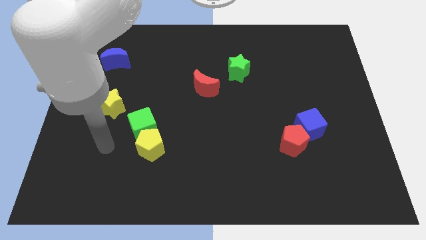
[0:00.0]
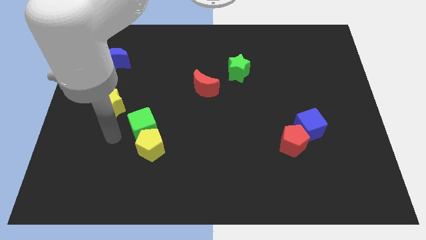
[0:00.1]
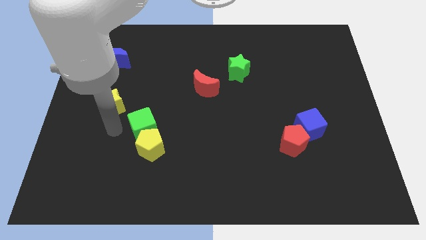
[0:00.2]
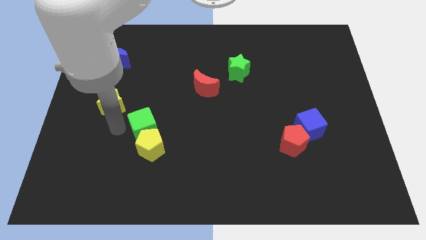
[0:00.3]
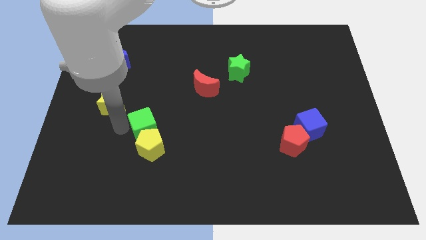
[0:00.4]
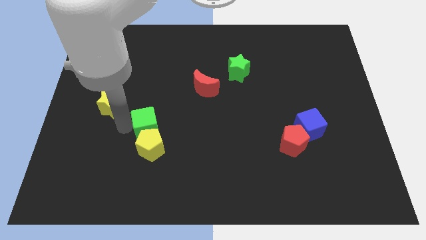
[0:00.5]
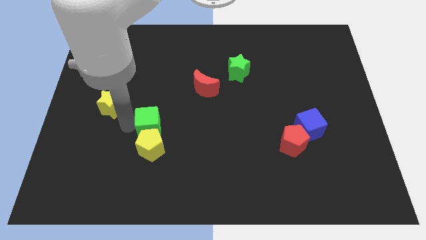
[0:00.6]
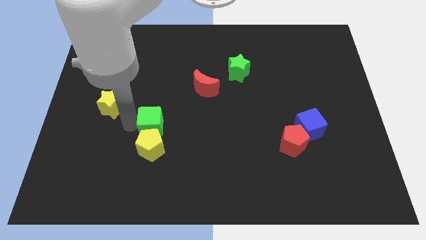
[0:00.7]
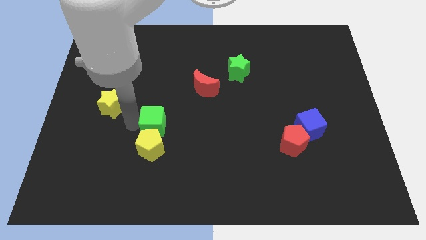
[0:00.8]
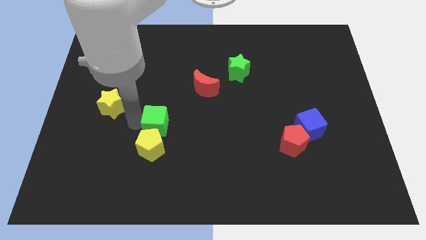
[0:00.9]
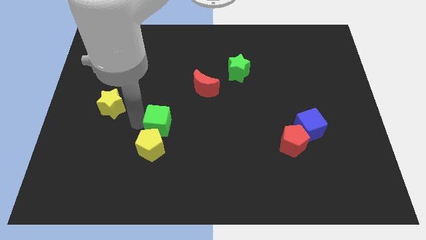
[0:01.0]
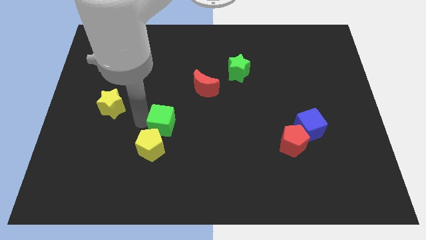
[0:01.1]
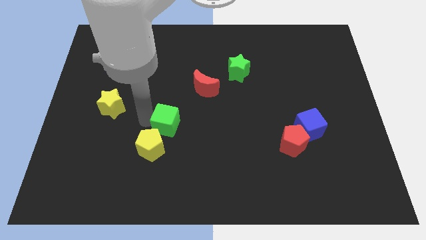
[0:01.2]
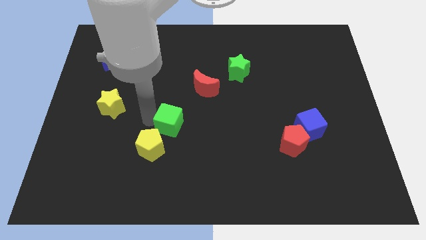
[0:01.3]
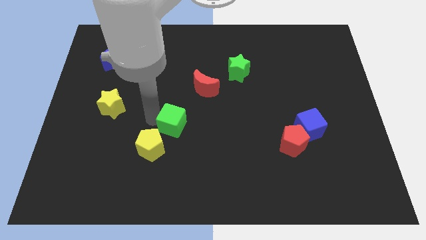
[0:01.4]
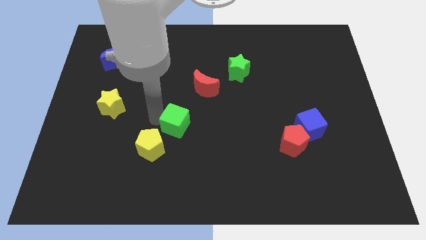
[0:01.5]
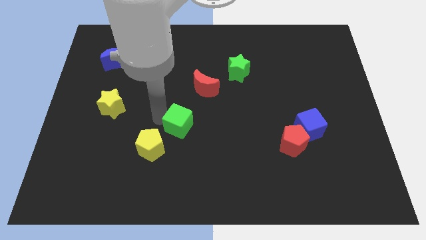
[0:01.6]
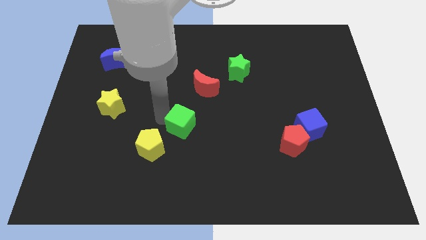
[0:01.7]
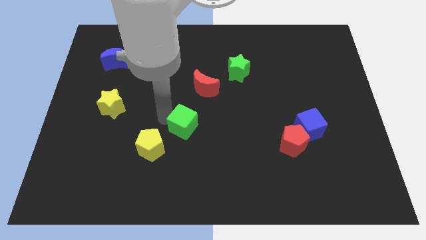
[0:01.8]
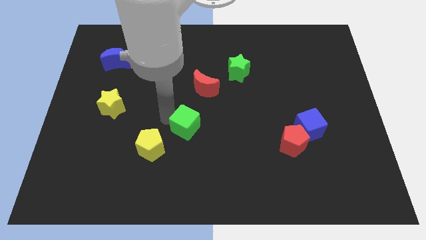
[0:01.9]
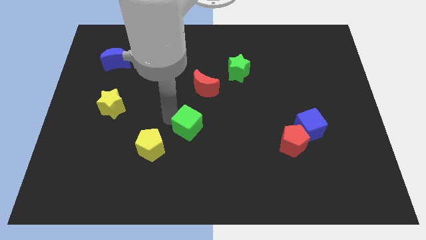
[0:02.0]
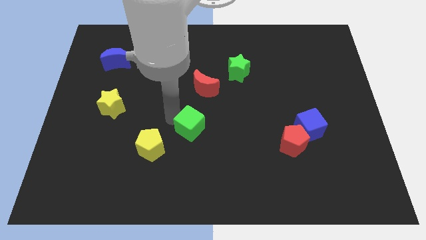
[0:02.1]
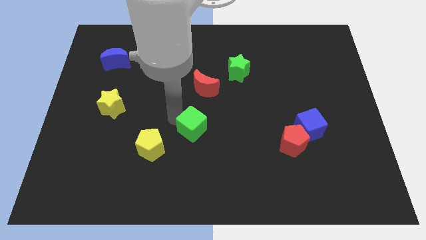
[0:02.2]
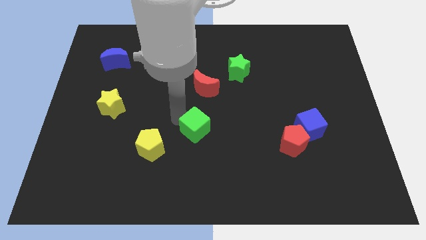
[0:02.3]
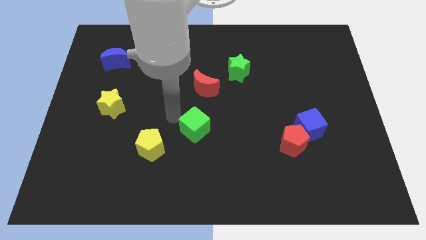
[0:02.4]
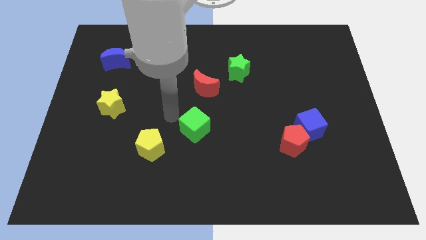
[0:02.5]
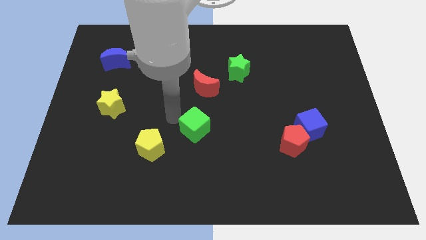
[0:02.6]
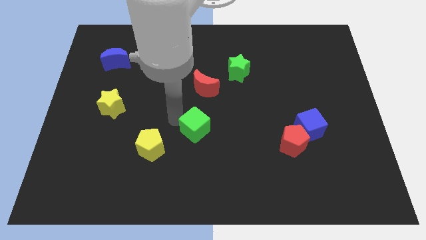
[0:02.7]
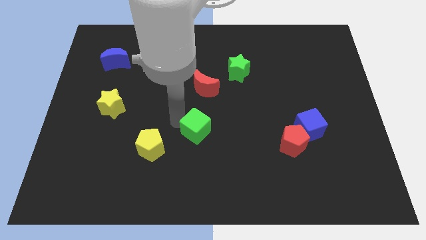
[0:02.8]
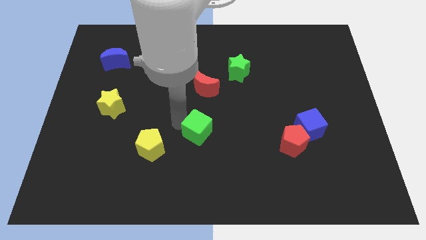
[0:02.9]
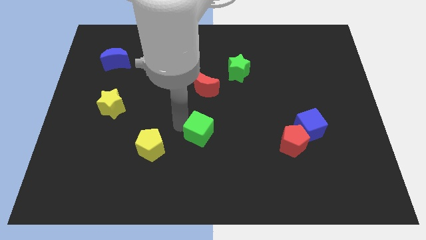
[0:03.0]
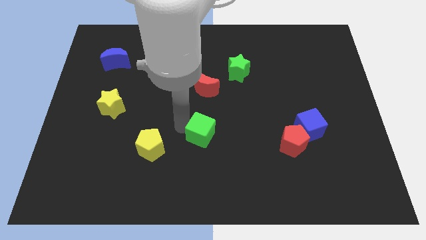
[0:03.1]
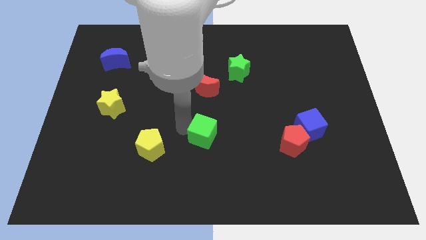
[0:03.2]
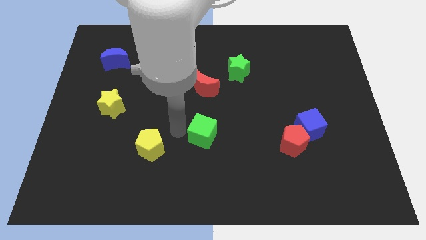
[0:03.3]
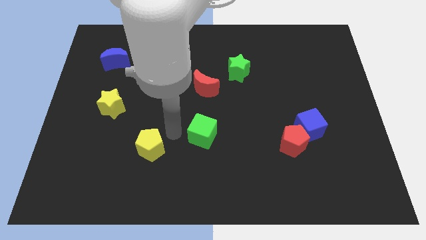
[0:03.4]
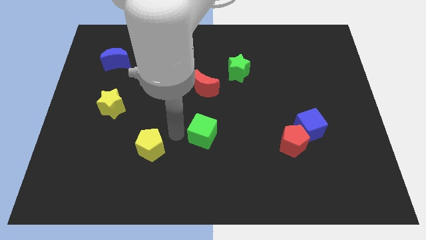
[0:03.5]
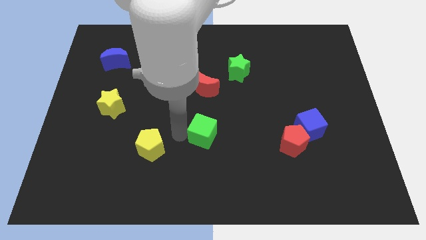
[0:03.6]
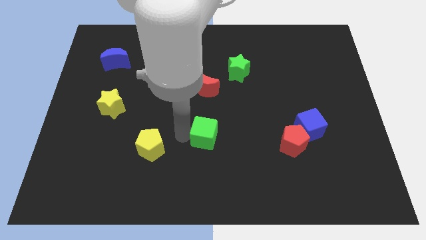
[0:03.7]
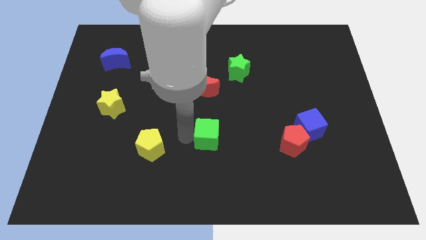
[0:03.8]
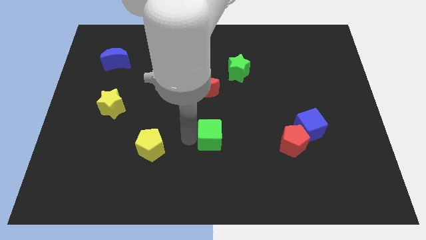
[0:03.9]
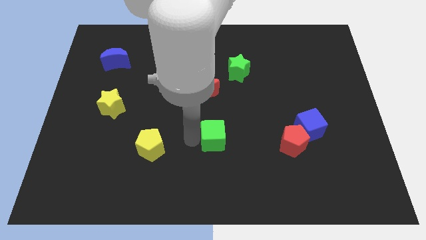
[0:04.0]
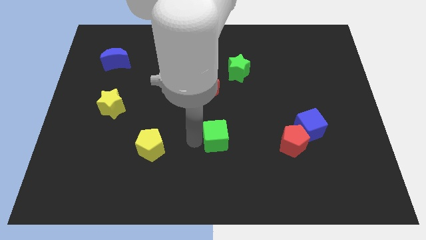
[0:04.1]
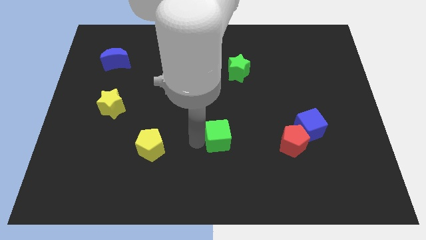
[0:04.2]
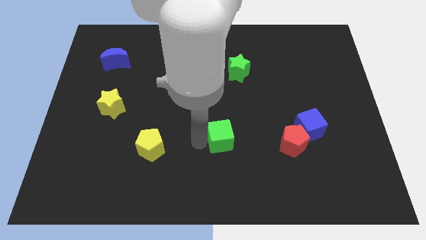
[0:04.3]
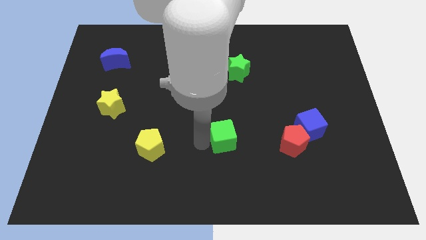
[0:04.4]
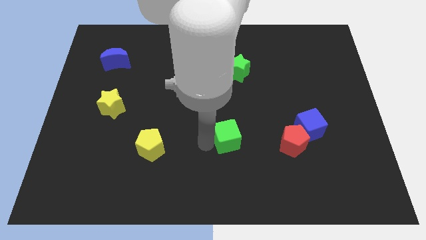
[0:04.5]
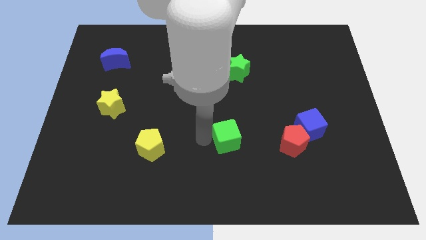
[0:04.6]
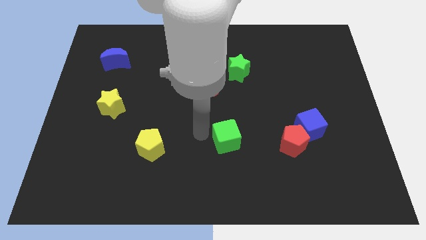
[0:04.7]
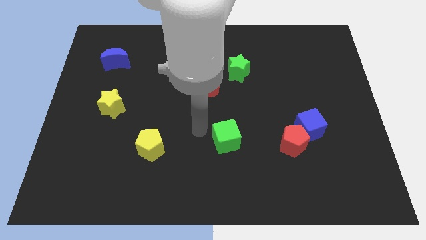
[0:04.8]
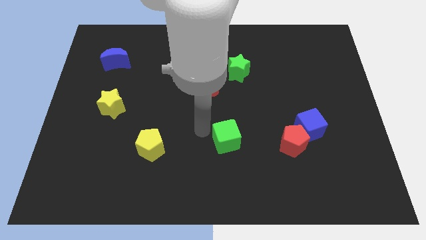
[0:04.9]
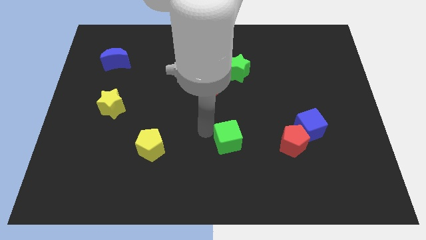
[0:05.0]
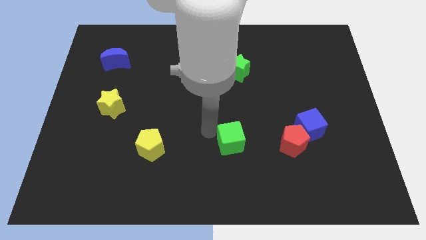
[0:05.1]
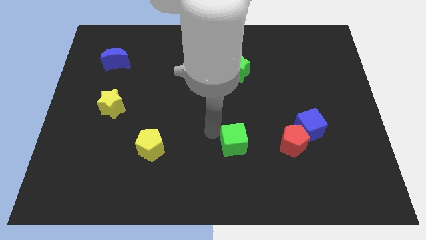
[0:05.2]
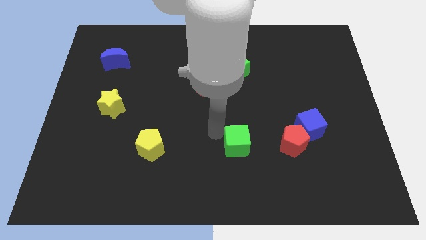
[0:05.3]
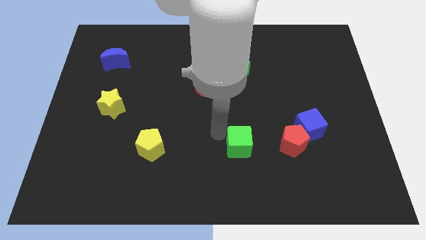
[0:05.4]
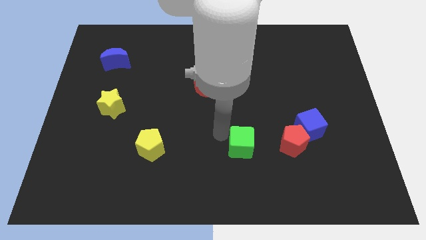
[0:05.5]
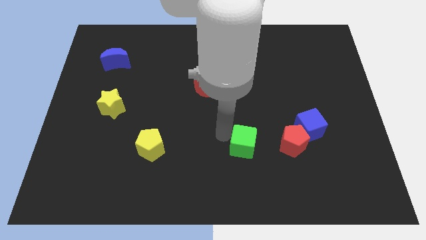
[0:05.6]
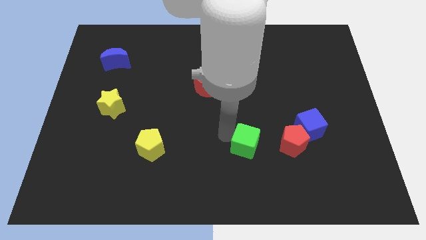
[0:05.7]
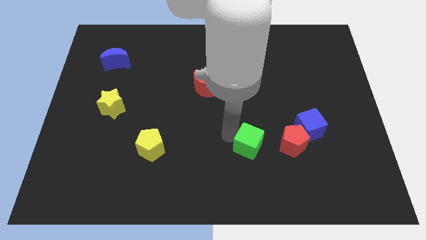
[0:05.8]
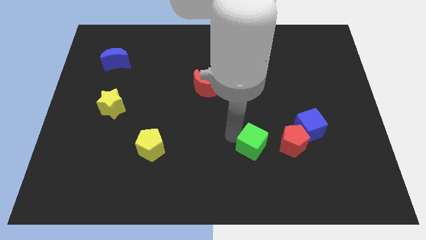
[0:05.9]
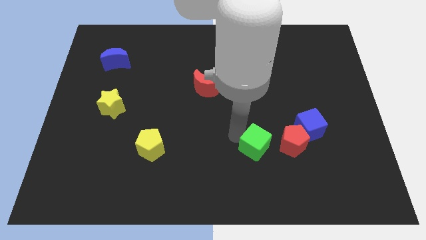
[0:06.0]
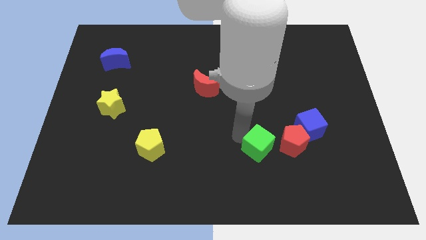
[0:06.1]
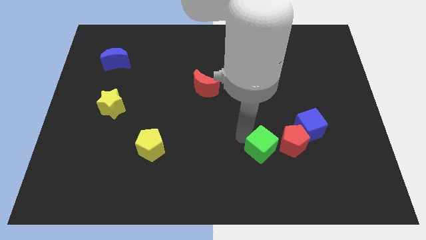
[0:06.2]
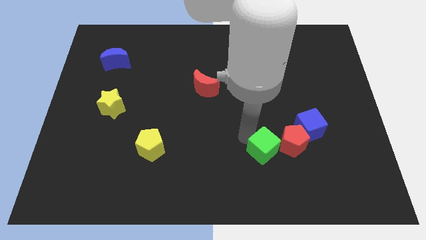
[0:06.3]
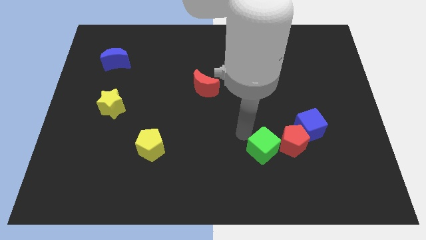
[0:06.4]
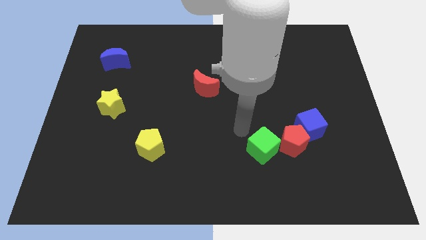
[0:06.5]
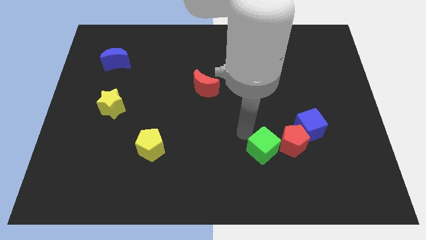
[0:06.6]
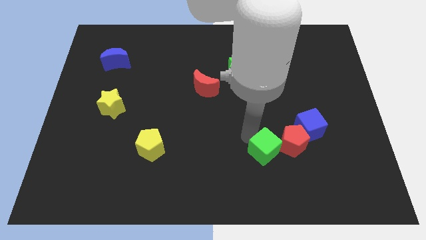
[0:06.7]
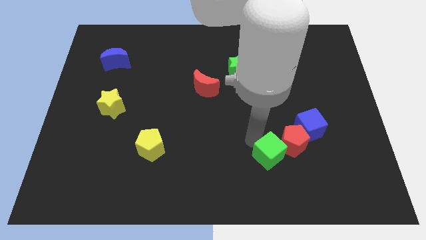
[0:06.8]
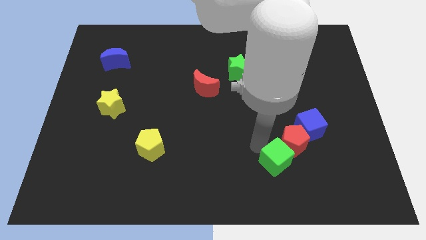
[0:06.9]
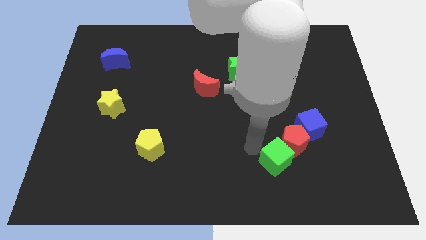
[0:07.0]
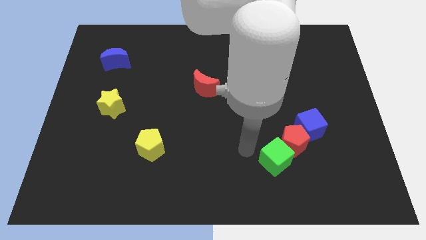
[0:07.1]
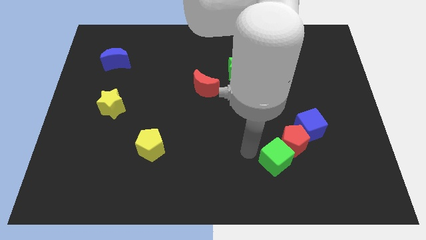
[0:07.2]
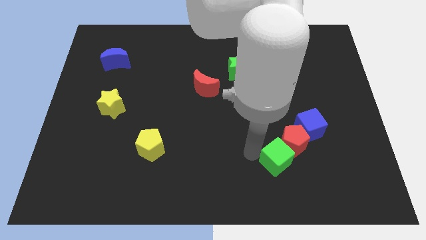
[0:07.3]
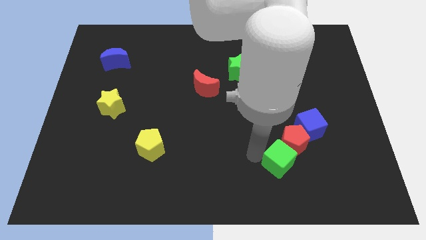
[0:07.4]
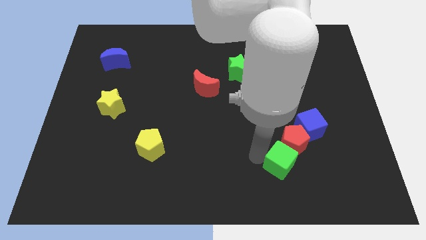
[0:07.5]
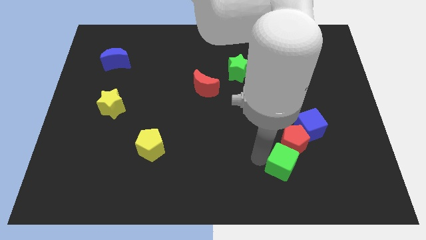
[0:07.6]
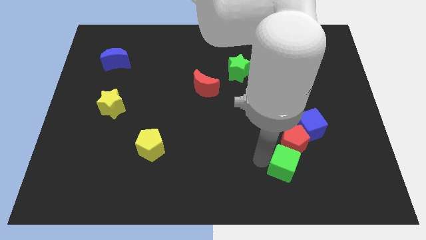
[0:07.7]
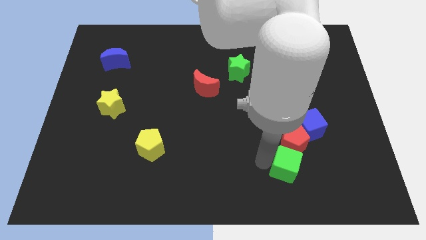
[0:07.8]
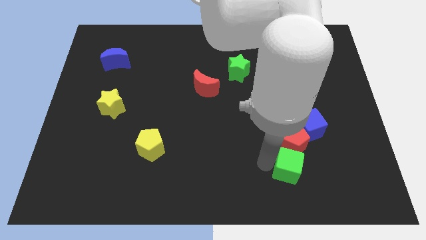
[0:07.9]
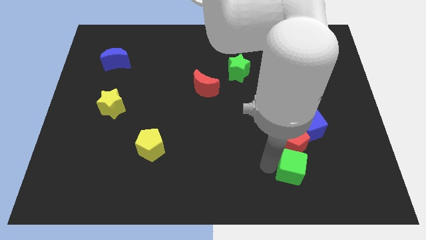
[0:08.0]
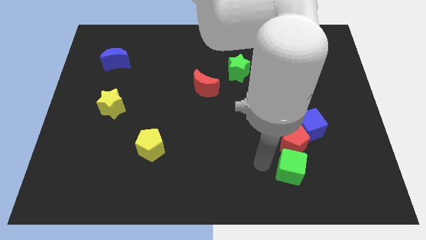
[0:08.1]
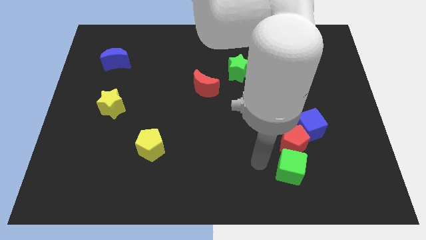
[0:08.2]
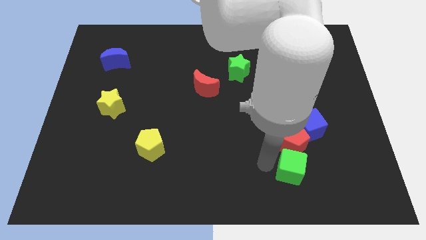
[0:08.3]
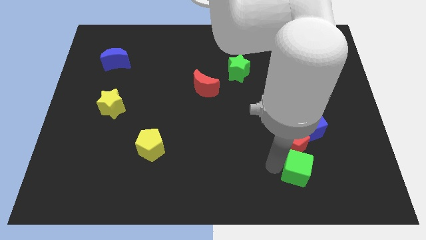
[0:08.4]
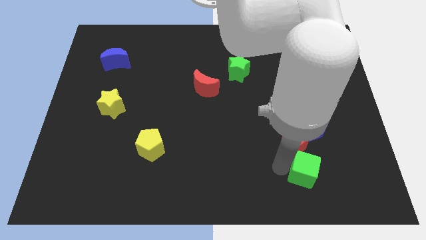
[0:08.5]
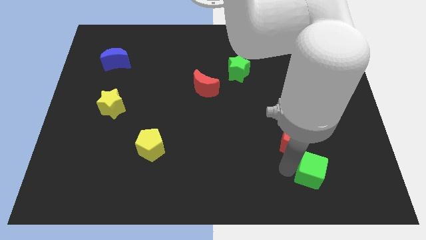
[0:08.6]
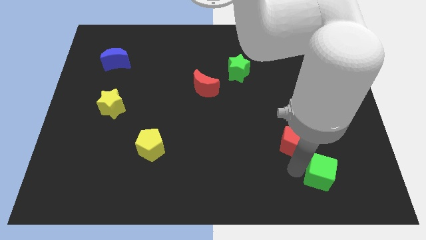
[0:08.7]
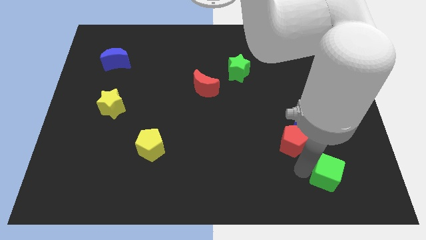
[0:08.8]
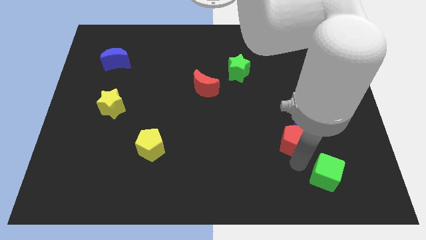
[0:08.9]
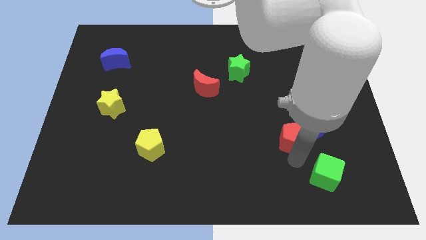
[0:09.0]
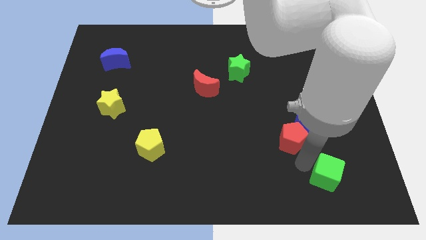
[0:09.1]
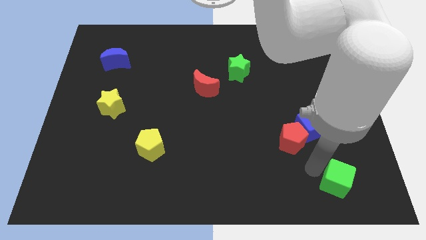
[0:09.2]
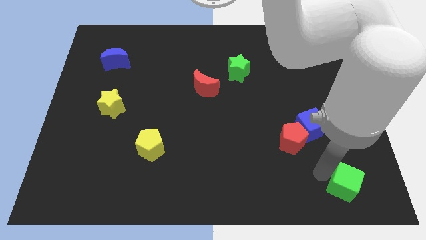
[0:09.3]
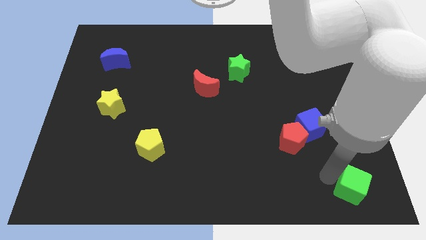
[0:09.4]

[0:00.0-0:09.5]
push the green cube to the bottom right of the board
